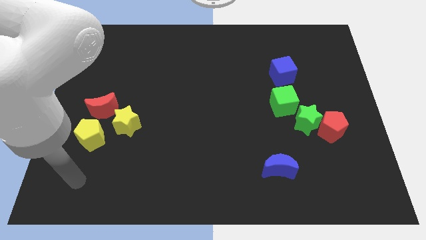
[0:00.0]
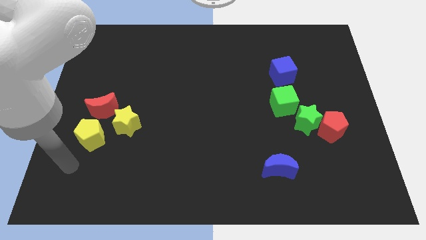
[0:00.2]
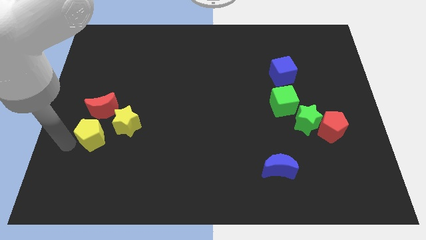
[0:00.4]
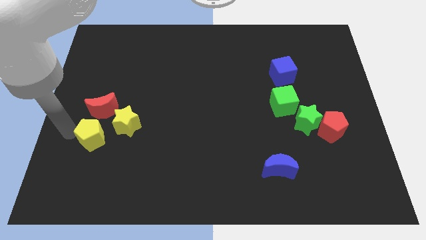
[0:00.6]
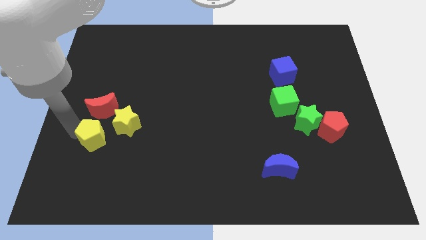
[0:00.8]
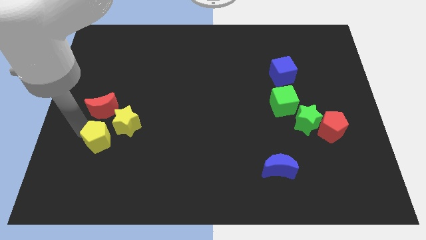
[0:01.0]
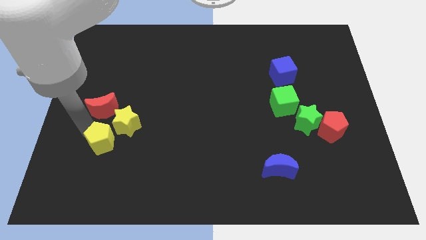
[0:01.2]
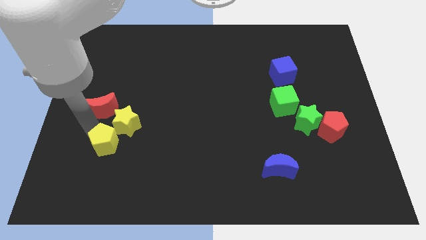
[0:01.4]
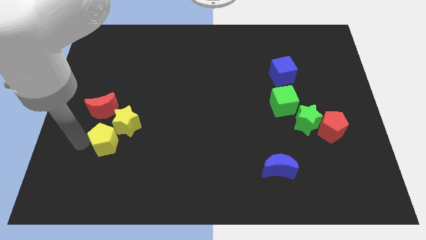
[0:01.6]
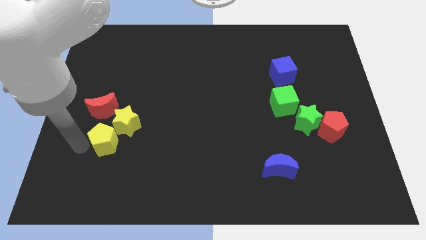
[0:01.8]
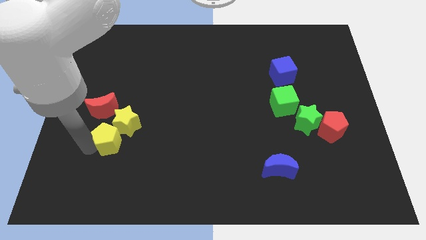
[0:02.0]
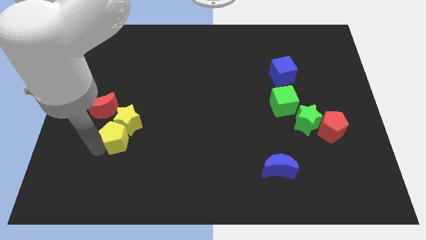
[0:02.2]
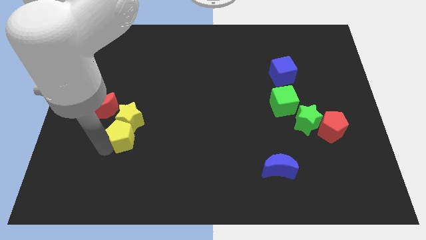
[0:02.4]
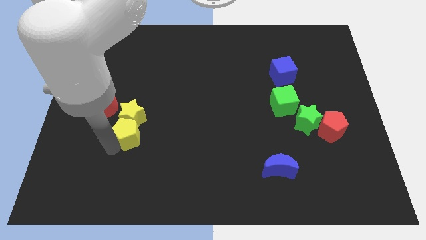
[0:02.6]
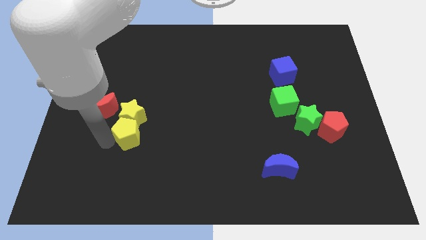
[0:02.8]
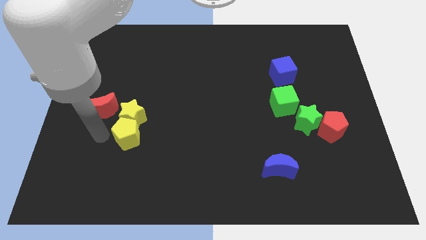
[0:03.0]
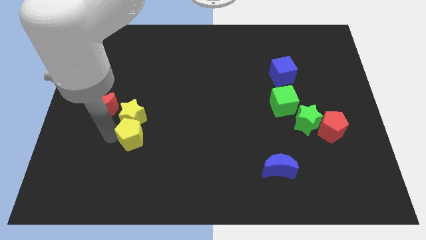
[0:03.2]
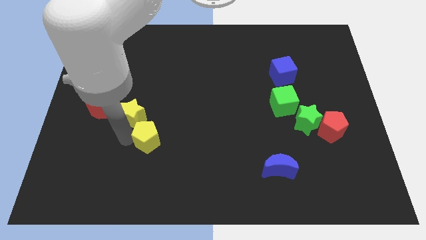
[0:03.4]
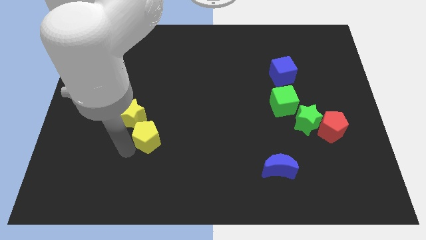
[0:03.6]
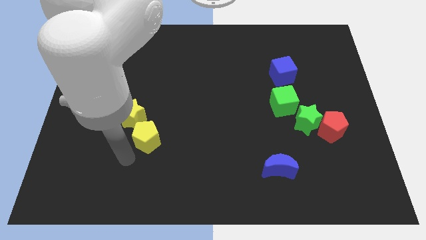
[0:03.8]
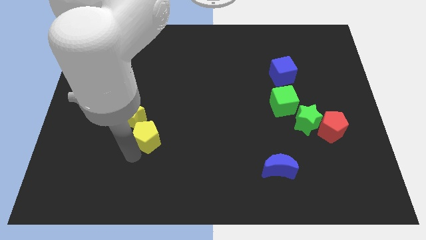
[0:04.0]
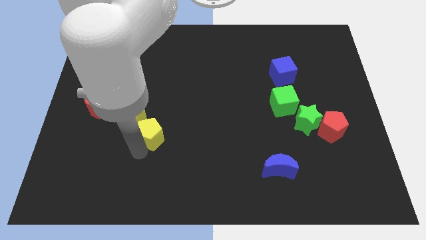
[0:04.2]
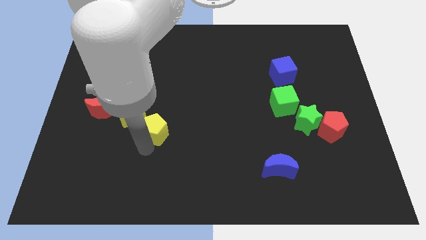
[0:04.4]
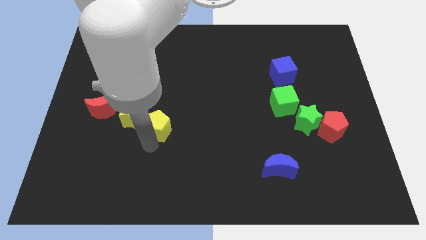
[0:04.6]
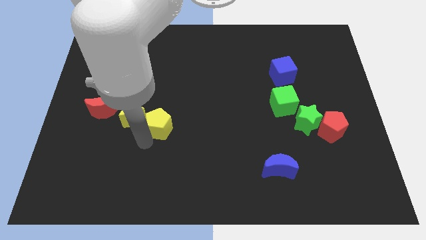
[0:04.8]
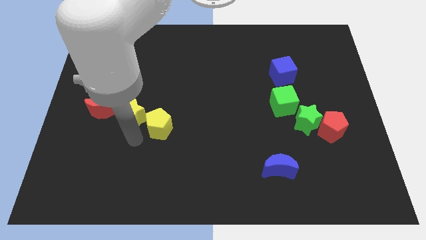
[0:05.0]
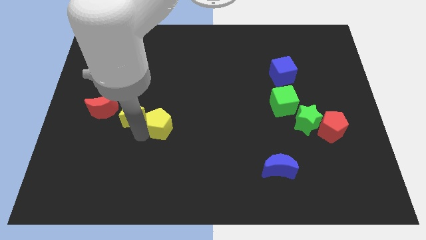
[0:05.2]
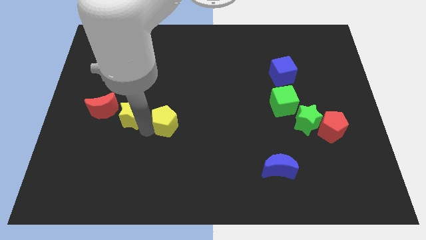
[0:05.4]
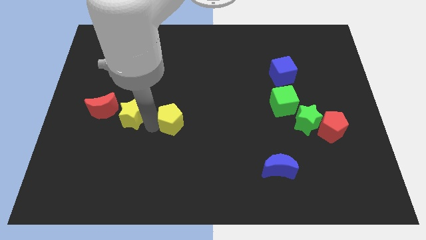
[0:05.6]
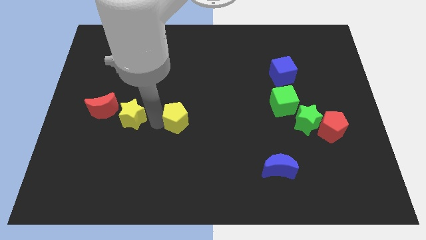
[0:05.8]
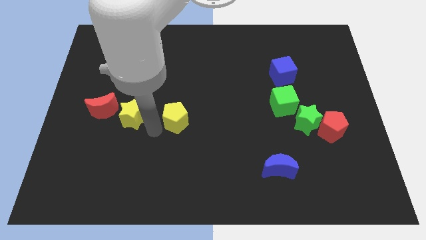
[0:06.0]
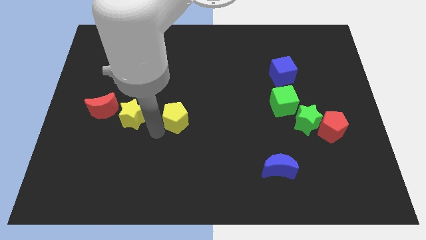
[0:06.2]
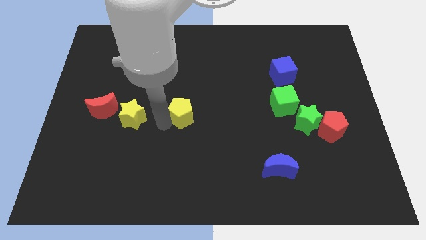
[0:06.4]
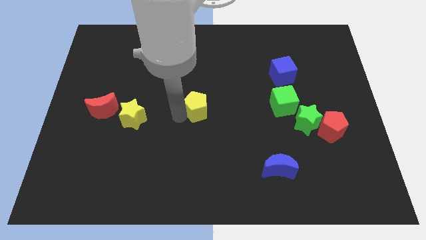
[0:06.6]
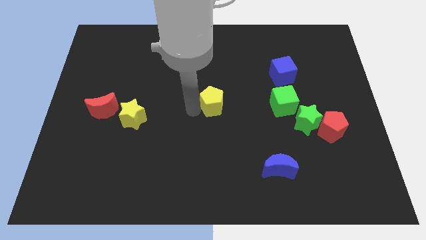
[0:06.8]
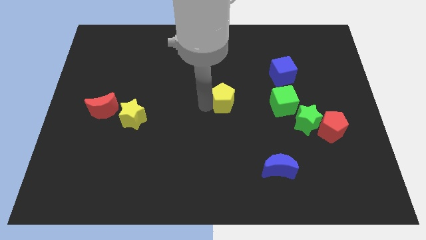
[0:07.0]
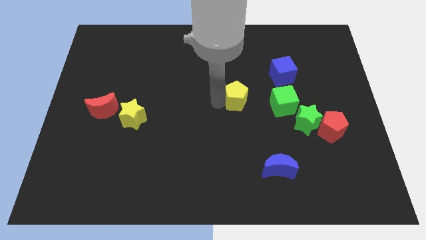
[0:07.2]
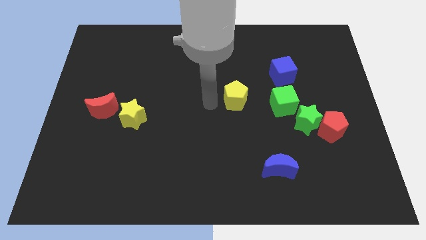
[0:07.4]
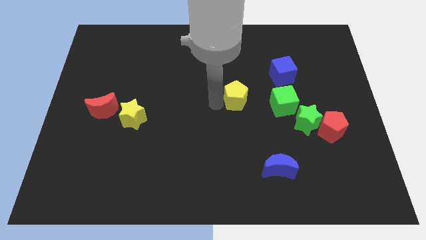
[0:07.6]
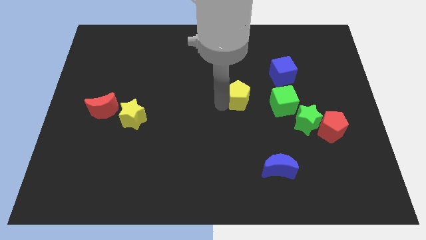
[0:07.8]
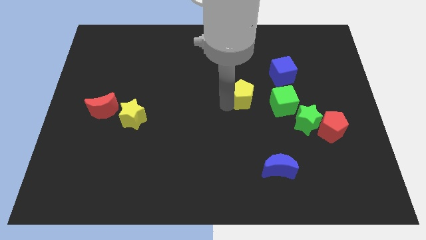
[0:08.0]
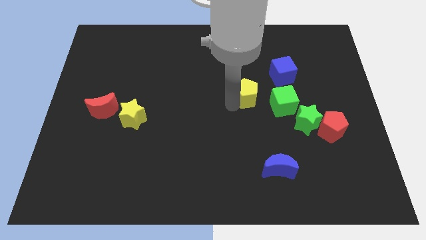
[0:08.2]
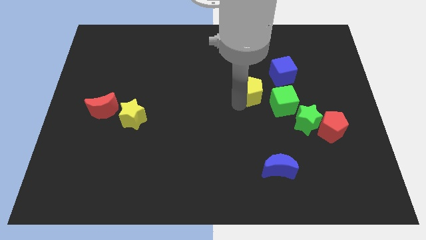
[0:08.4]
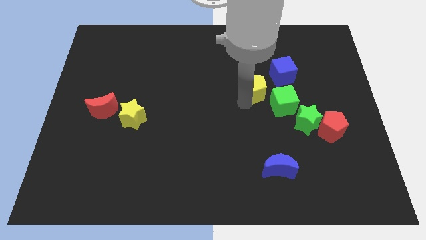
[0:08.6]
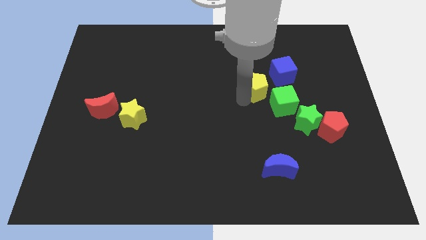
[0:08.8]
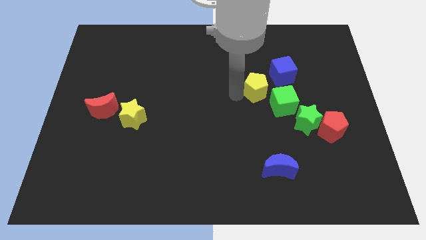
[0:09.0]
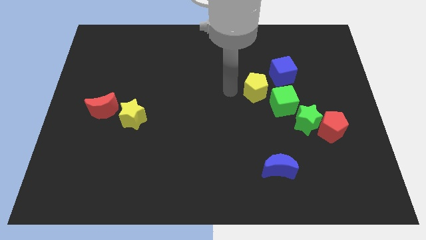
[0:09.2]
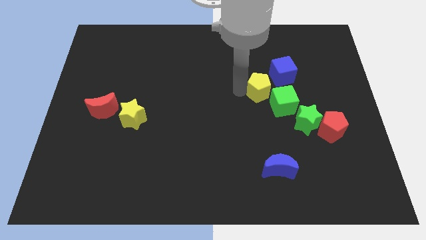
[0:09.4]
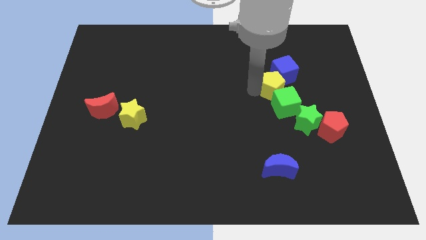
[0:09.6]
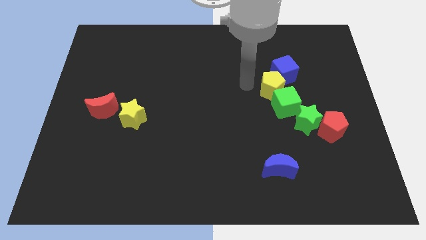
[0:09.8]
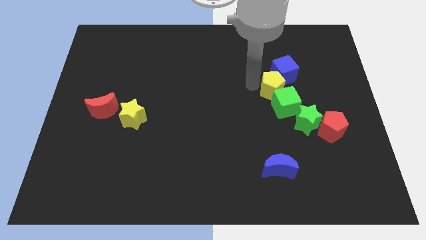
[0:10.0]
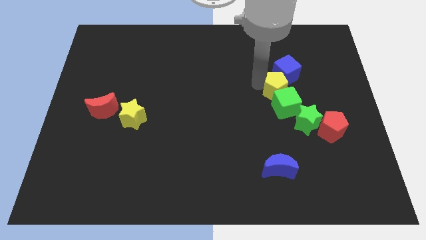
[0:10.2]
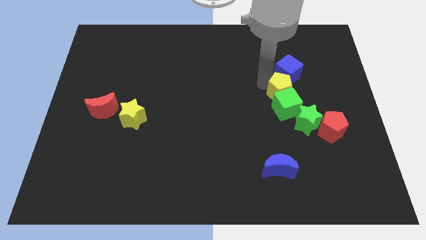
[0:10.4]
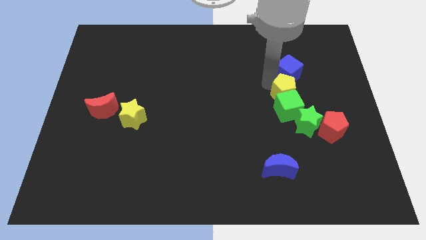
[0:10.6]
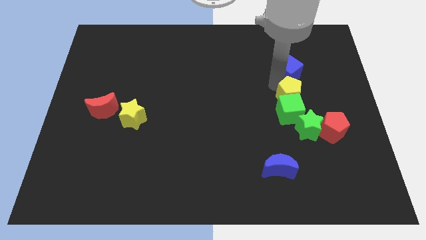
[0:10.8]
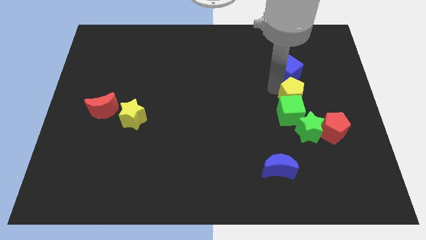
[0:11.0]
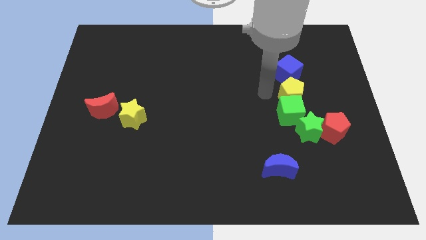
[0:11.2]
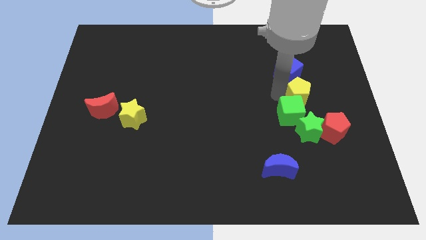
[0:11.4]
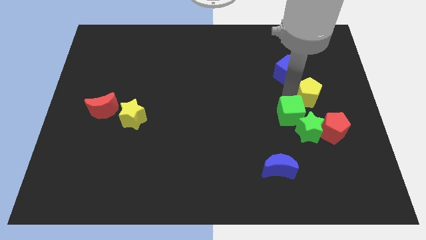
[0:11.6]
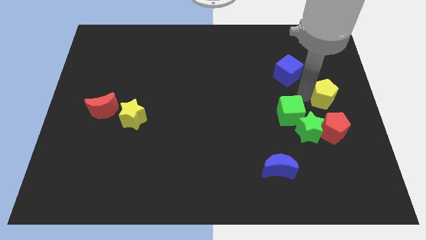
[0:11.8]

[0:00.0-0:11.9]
slide the yellow pentagon to the right side of the board
